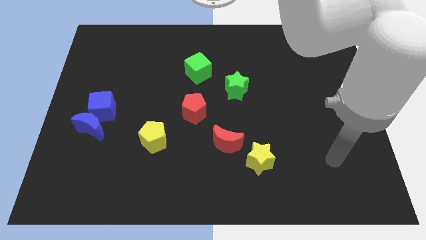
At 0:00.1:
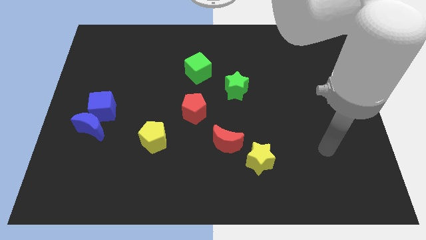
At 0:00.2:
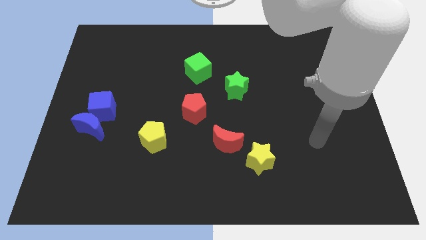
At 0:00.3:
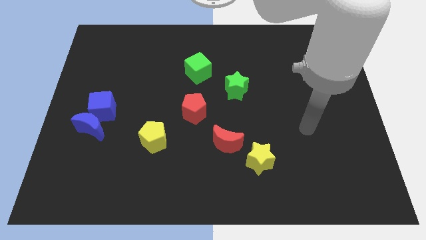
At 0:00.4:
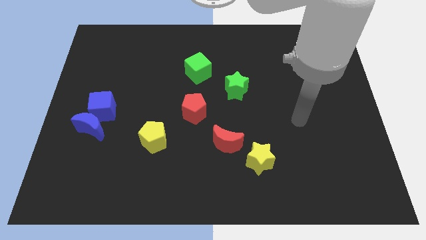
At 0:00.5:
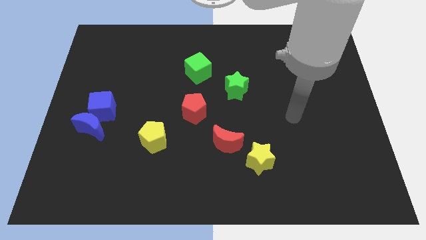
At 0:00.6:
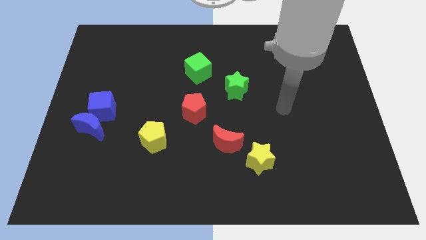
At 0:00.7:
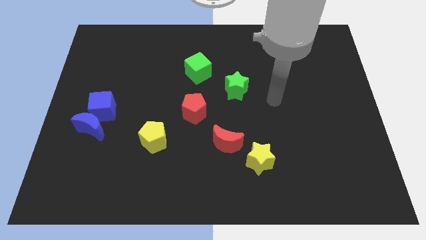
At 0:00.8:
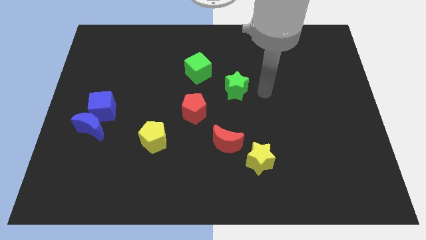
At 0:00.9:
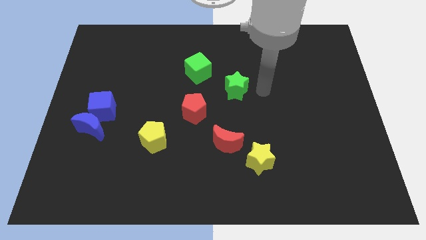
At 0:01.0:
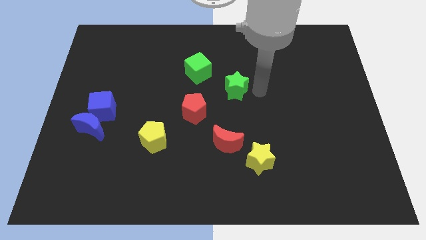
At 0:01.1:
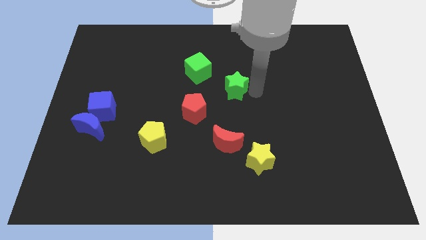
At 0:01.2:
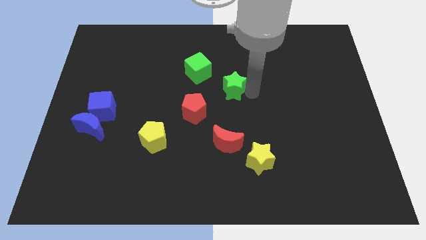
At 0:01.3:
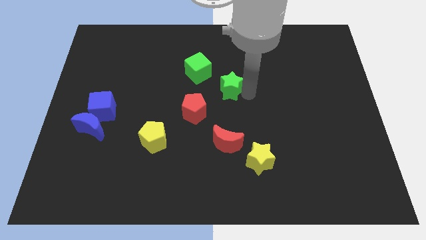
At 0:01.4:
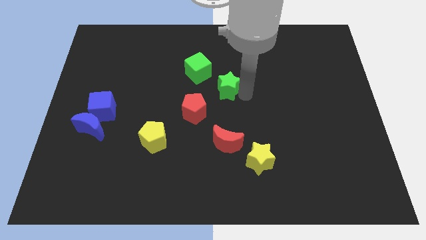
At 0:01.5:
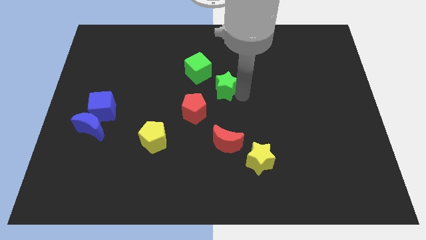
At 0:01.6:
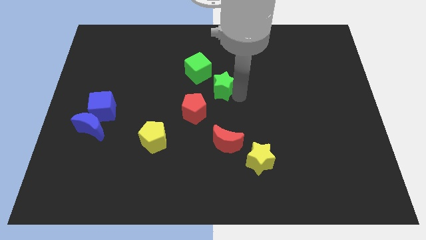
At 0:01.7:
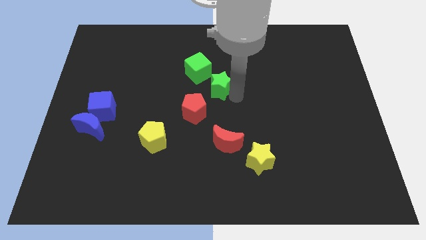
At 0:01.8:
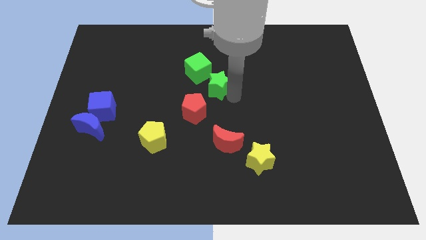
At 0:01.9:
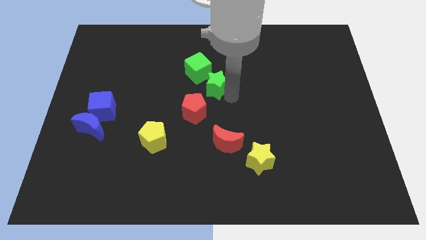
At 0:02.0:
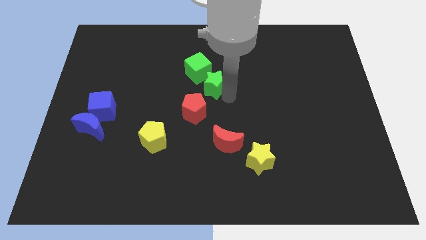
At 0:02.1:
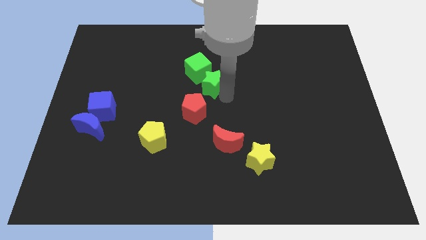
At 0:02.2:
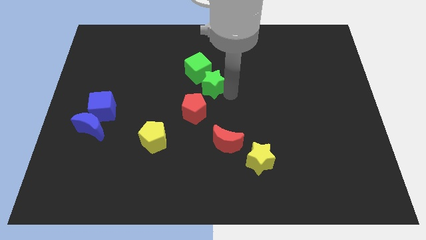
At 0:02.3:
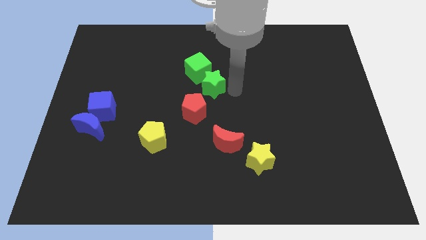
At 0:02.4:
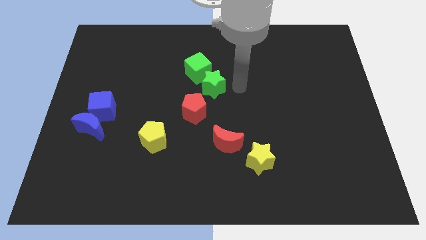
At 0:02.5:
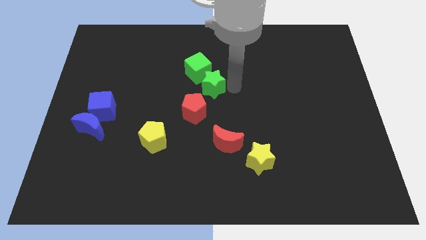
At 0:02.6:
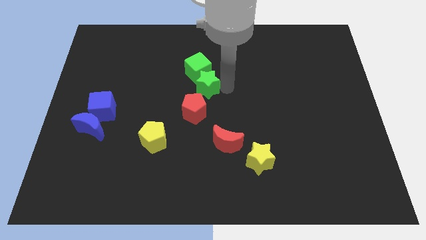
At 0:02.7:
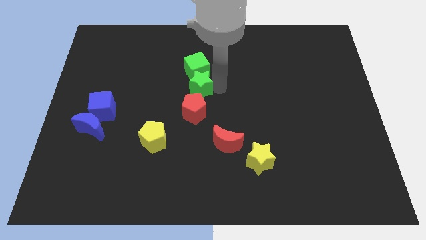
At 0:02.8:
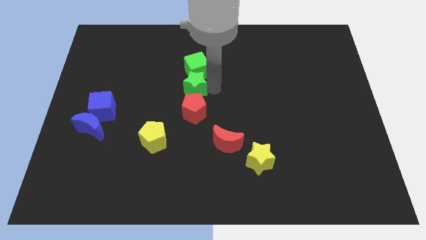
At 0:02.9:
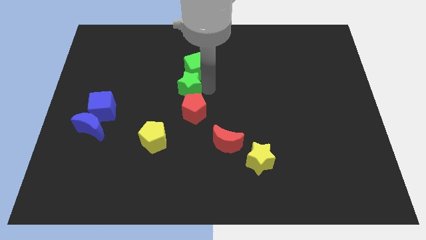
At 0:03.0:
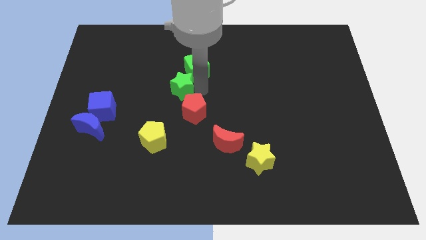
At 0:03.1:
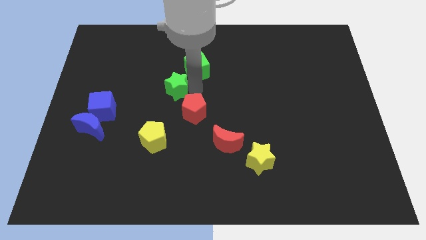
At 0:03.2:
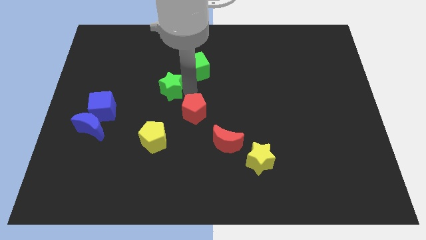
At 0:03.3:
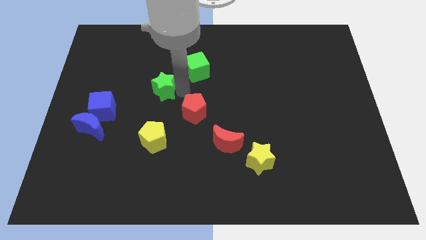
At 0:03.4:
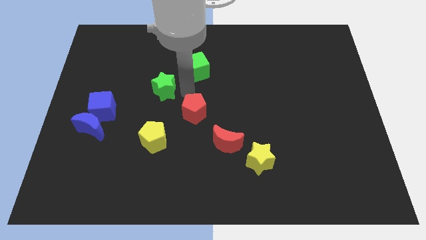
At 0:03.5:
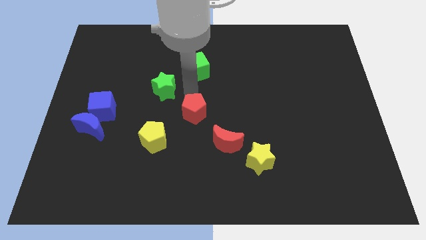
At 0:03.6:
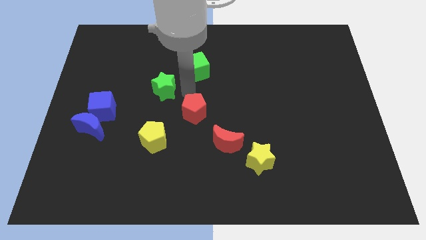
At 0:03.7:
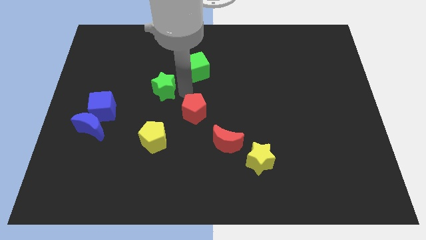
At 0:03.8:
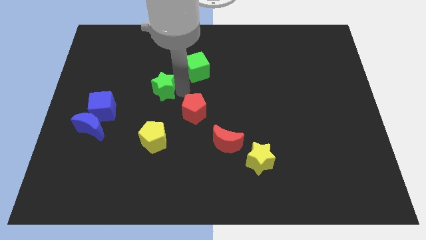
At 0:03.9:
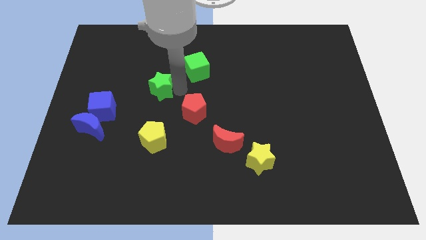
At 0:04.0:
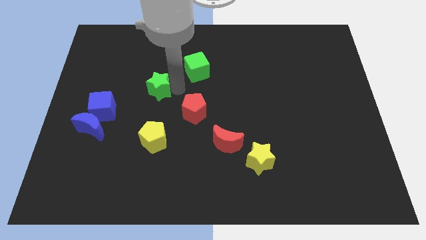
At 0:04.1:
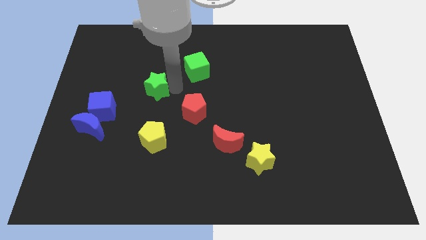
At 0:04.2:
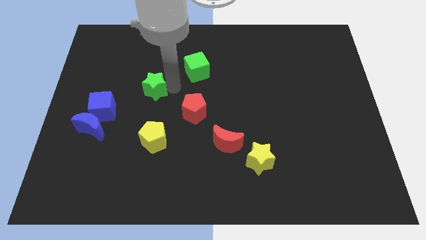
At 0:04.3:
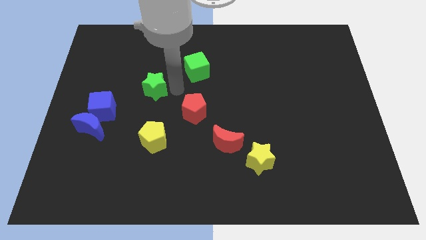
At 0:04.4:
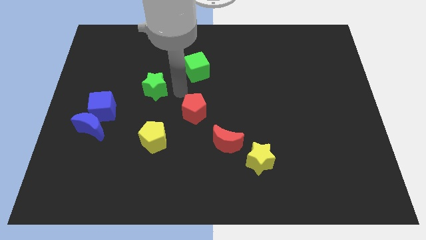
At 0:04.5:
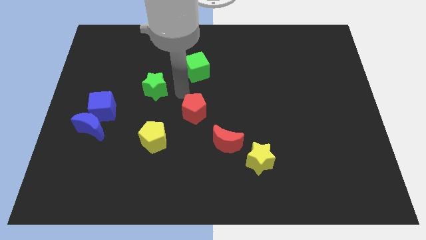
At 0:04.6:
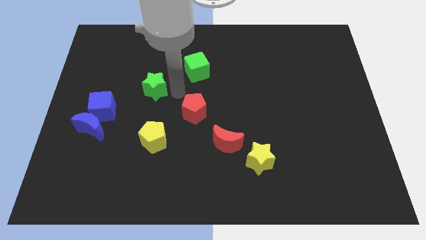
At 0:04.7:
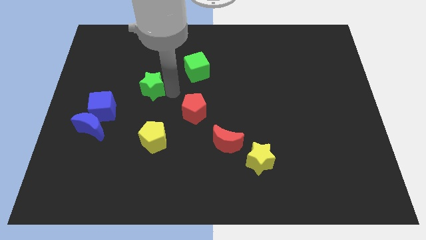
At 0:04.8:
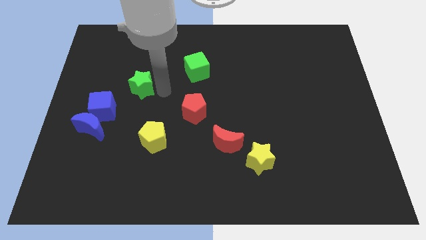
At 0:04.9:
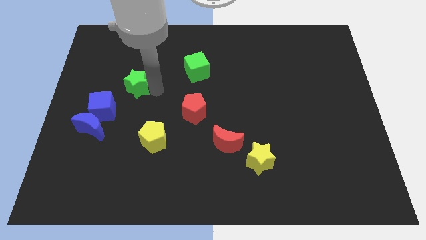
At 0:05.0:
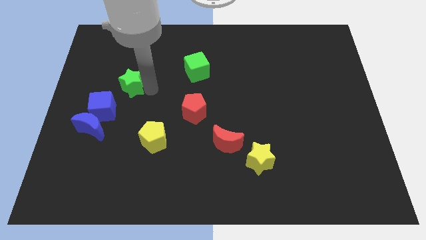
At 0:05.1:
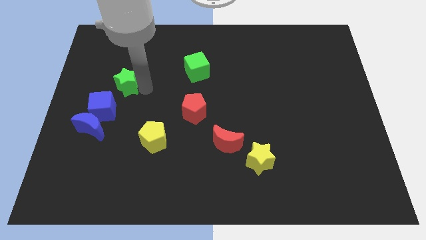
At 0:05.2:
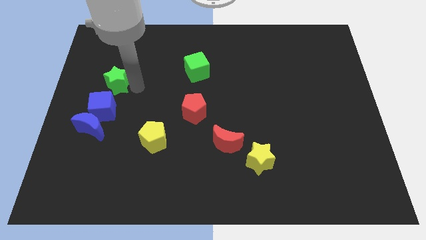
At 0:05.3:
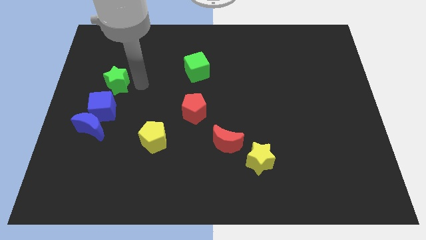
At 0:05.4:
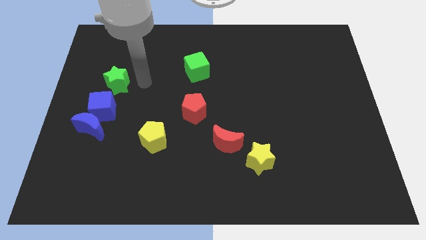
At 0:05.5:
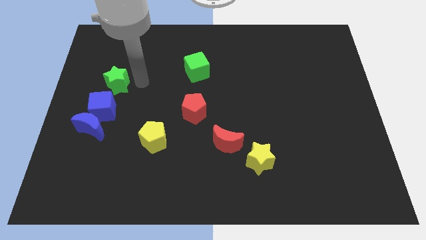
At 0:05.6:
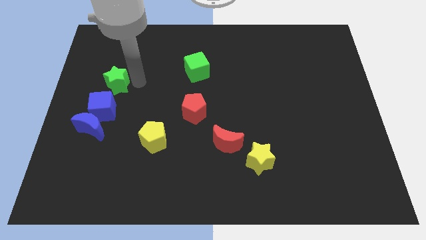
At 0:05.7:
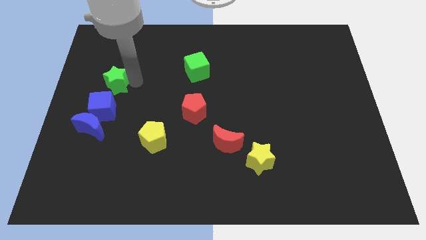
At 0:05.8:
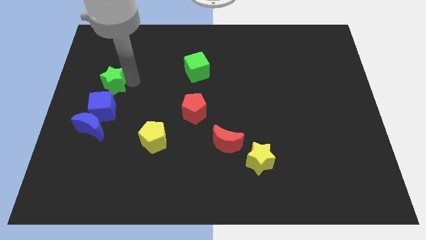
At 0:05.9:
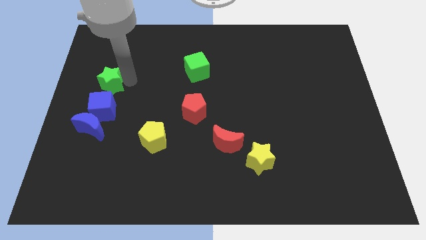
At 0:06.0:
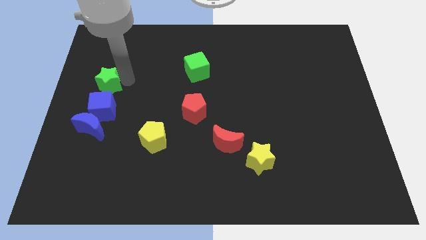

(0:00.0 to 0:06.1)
slide the green star to the left side
